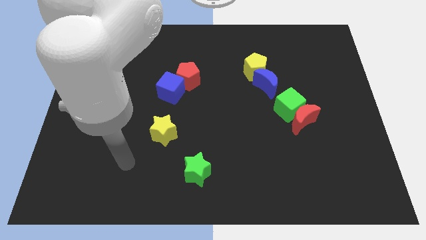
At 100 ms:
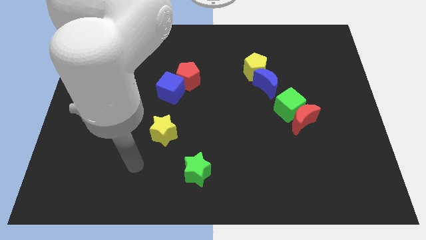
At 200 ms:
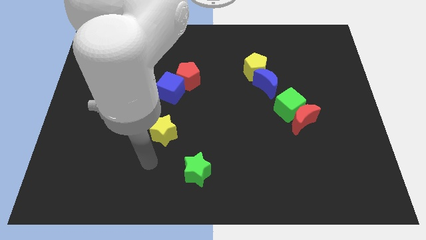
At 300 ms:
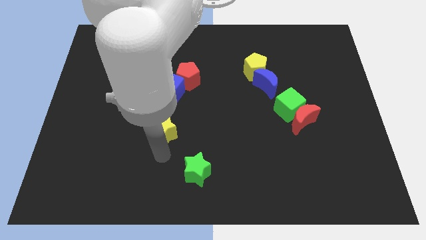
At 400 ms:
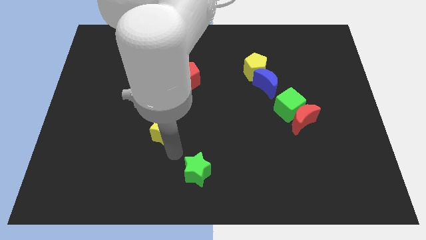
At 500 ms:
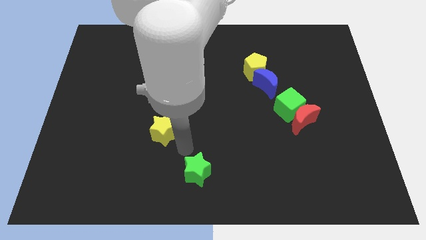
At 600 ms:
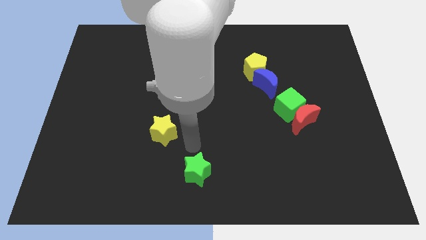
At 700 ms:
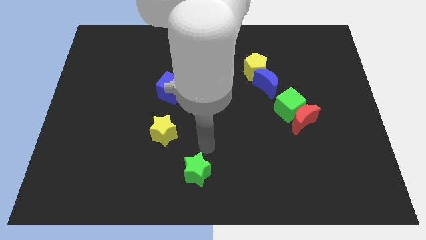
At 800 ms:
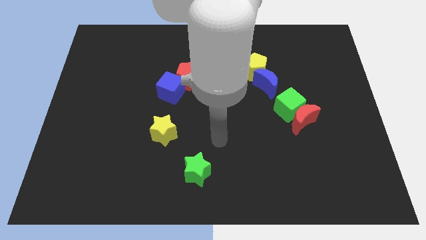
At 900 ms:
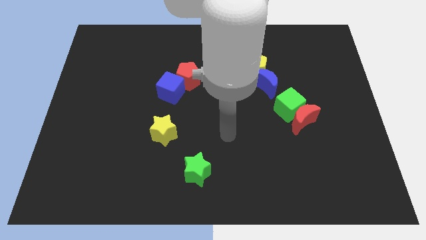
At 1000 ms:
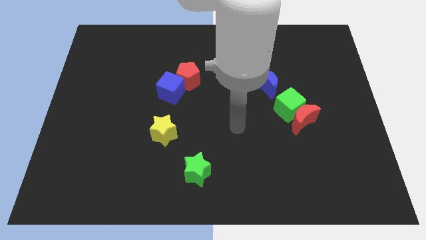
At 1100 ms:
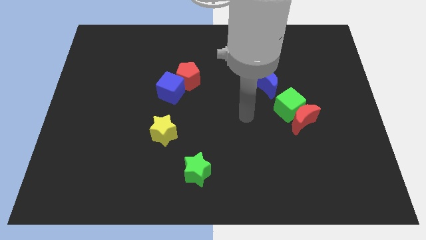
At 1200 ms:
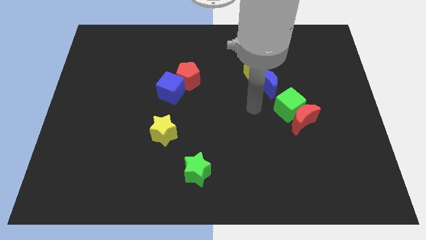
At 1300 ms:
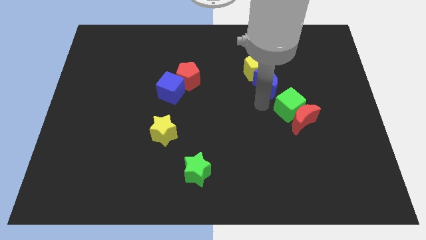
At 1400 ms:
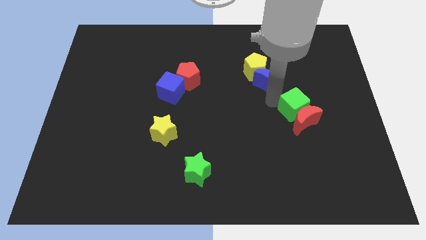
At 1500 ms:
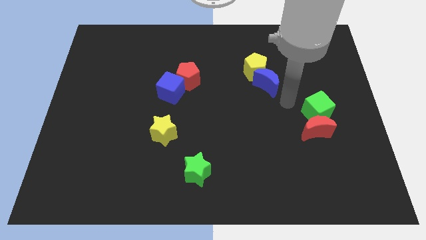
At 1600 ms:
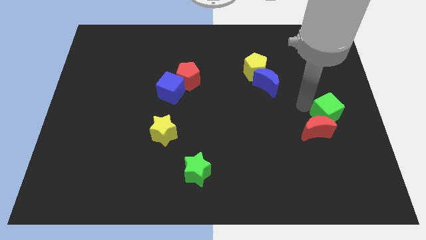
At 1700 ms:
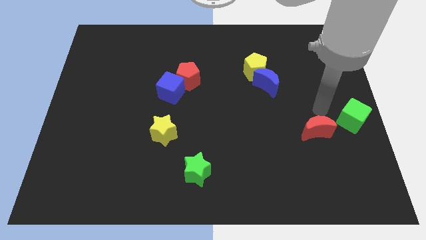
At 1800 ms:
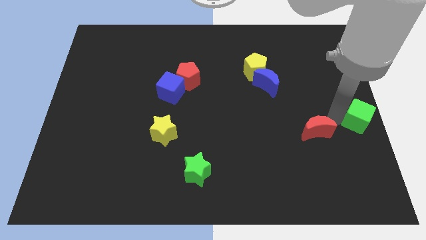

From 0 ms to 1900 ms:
separate the red moon from the green cube

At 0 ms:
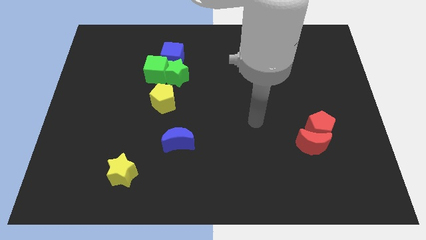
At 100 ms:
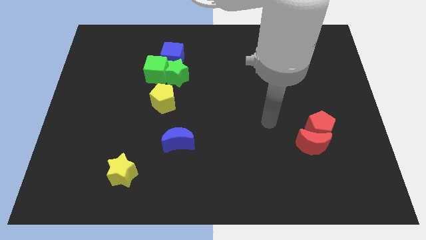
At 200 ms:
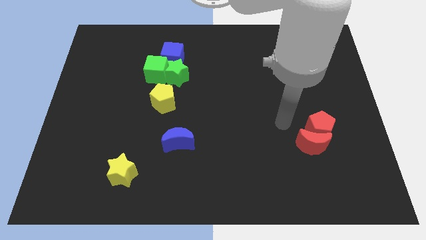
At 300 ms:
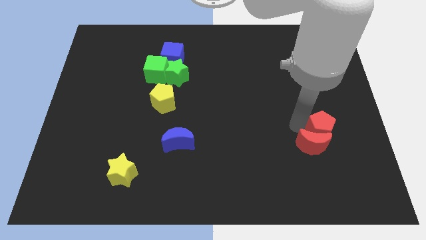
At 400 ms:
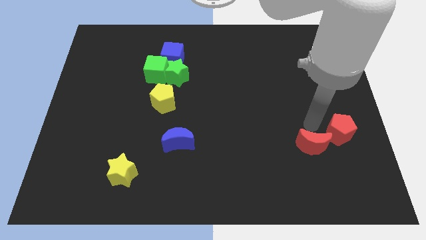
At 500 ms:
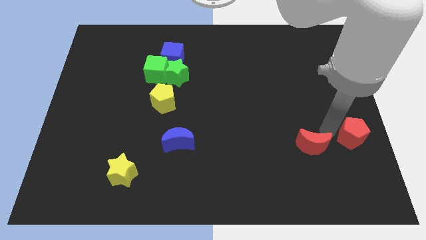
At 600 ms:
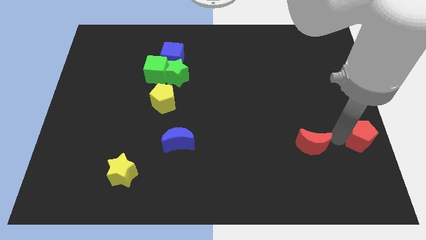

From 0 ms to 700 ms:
move the red moon away from the red pentagon

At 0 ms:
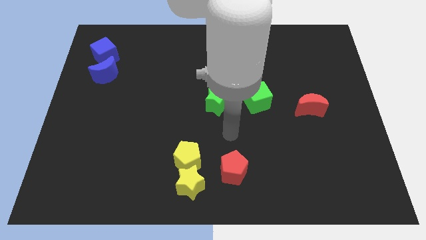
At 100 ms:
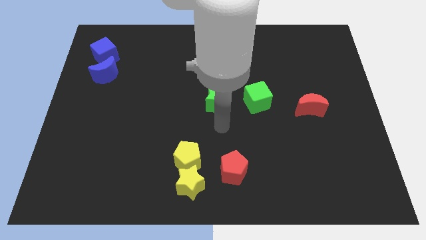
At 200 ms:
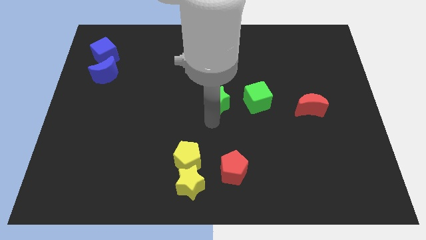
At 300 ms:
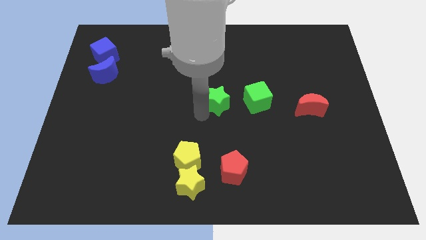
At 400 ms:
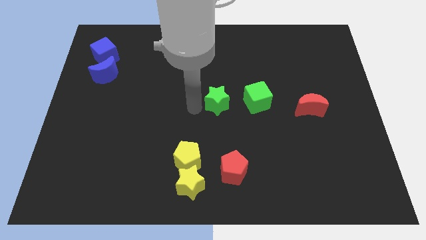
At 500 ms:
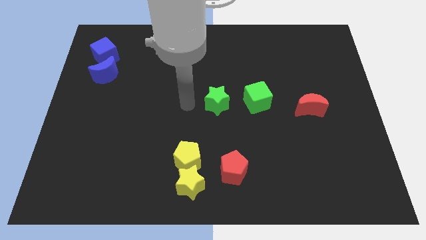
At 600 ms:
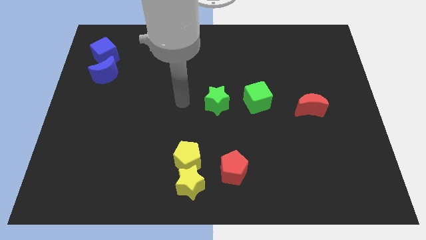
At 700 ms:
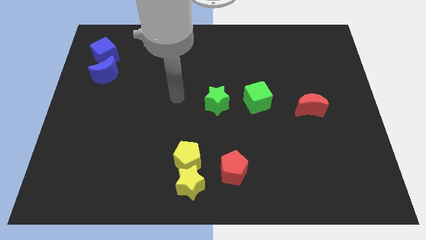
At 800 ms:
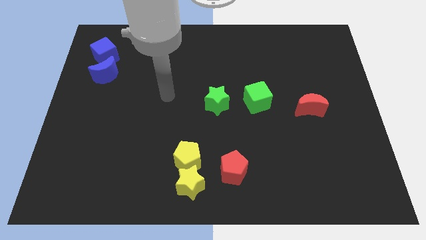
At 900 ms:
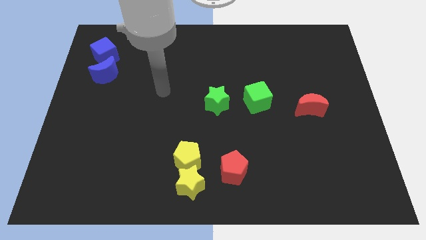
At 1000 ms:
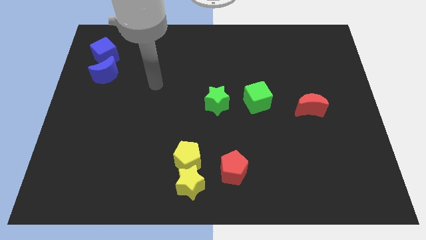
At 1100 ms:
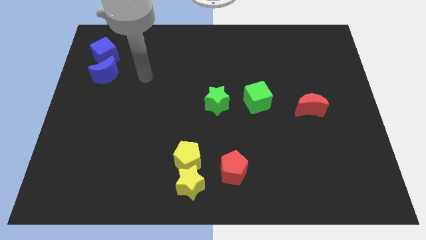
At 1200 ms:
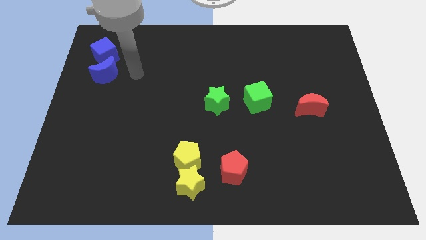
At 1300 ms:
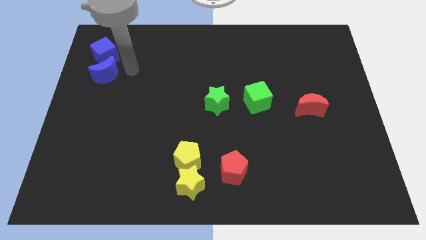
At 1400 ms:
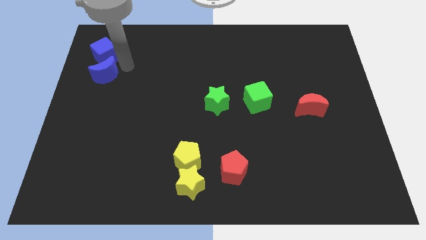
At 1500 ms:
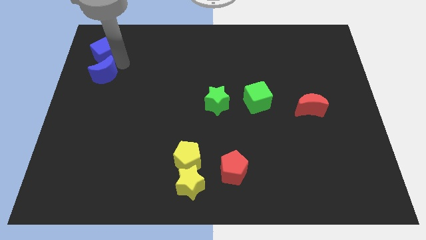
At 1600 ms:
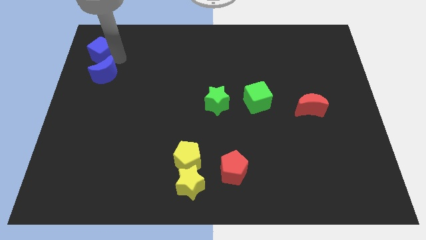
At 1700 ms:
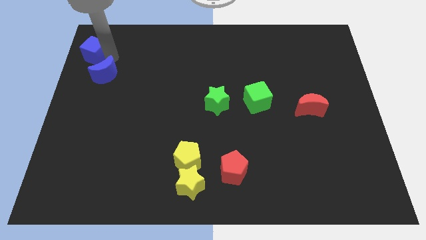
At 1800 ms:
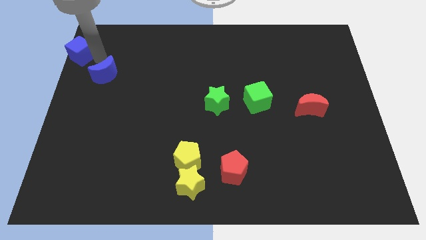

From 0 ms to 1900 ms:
pull the blue moon apart from the blue cube

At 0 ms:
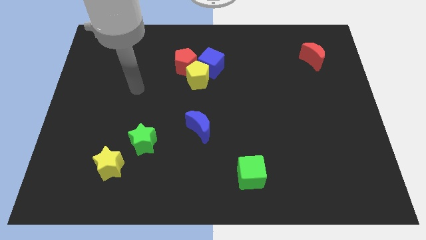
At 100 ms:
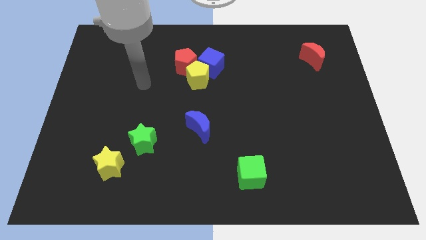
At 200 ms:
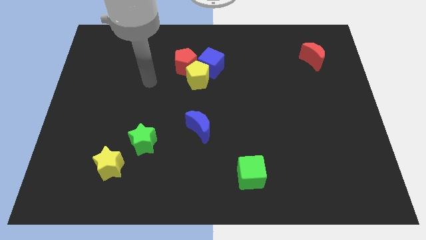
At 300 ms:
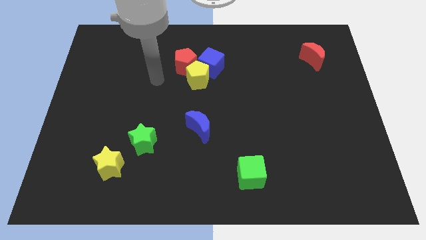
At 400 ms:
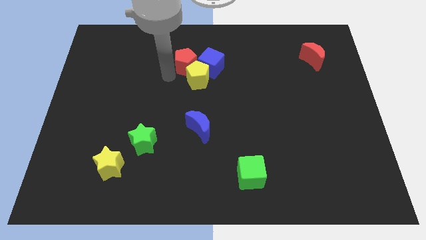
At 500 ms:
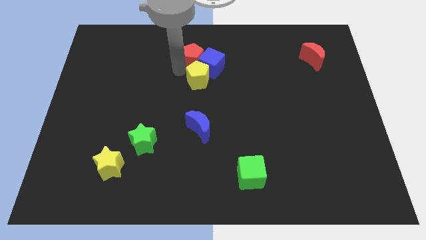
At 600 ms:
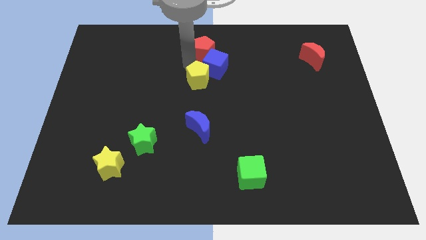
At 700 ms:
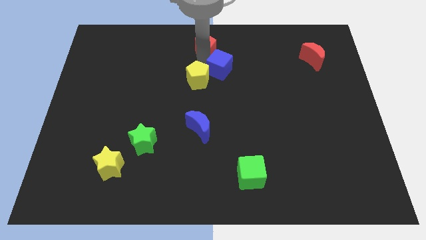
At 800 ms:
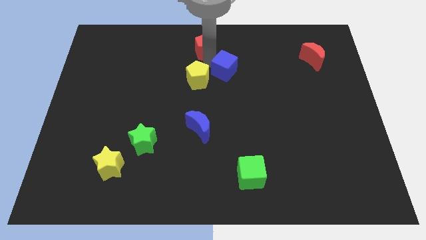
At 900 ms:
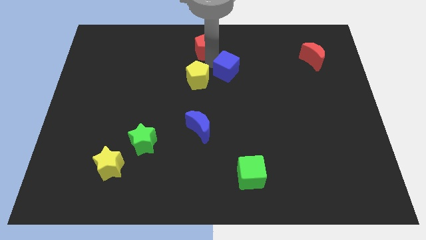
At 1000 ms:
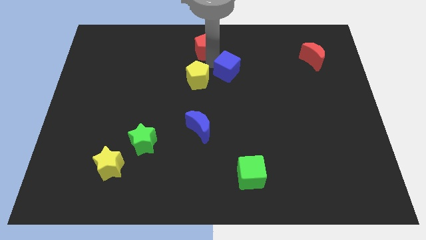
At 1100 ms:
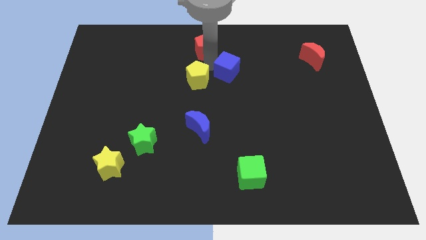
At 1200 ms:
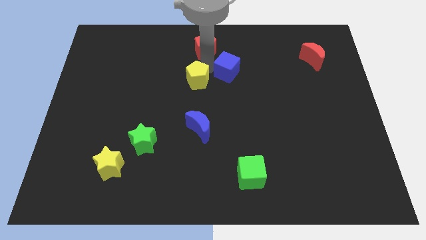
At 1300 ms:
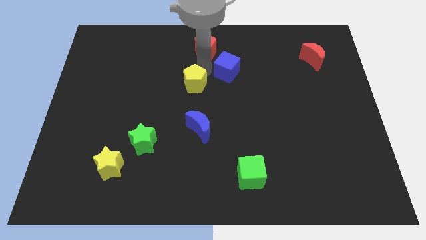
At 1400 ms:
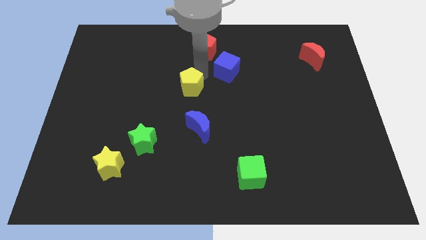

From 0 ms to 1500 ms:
move the yellow pentagon away from the blue cube and red pentagon

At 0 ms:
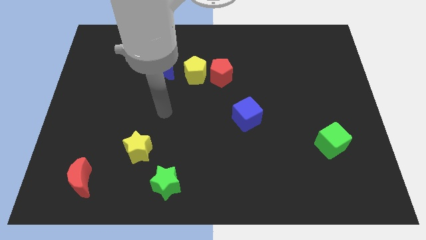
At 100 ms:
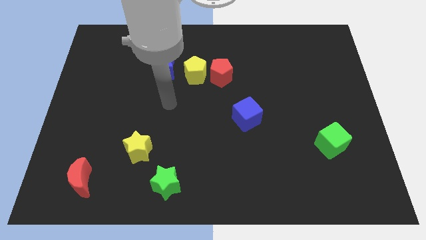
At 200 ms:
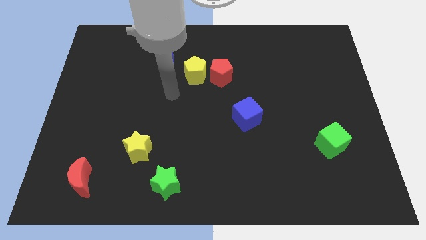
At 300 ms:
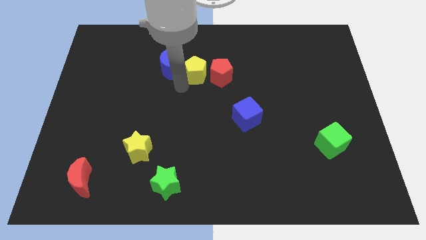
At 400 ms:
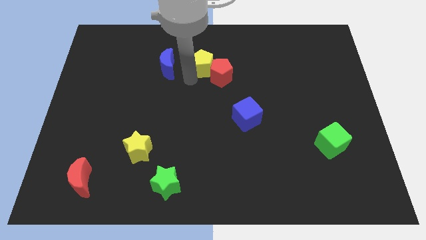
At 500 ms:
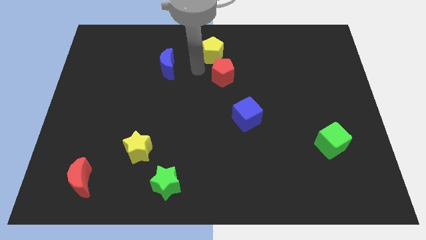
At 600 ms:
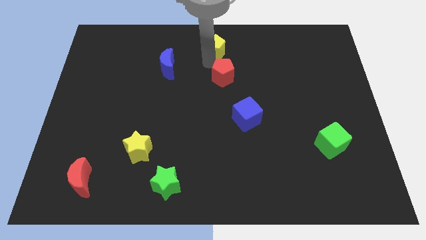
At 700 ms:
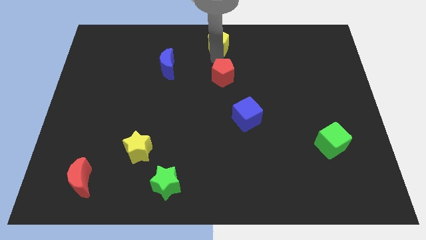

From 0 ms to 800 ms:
move the red pentagon away from the yellow pentagon

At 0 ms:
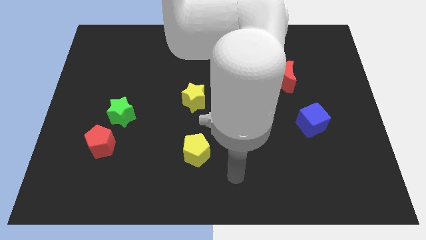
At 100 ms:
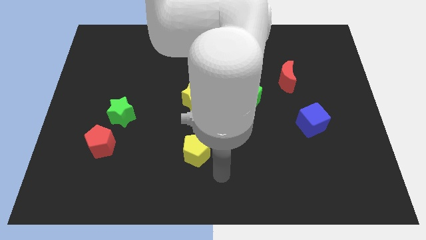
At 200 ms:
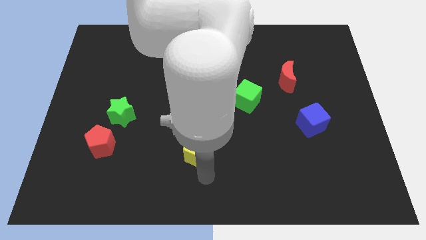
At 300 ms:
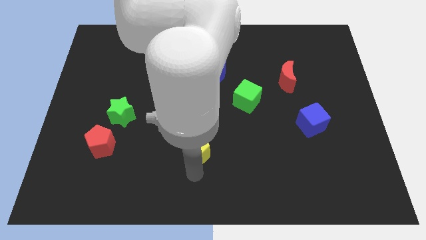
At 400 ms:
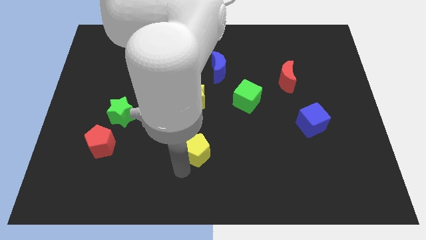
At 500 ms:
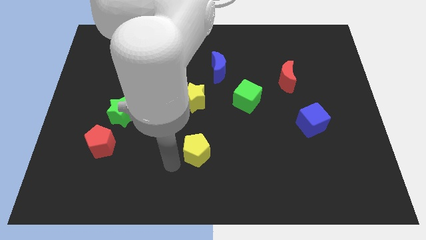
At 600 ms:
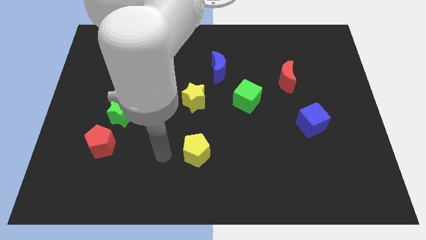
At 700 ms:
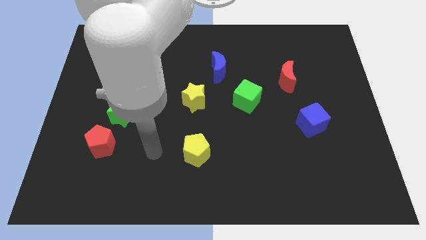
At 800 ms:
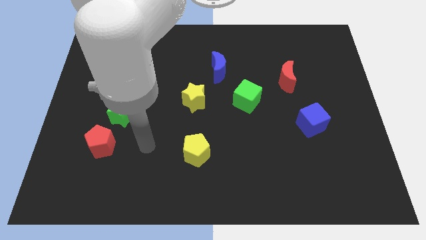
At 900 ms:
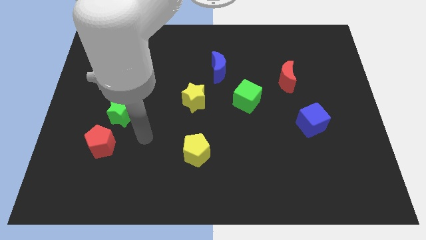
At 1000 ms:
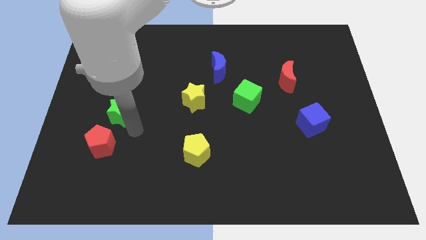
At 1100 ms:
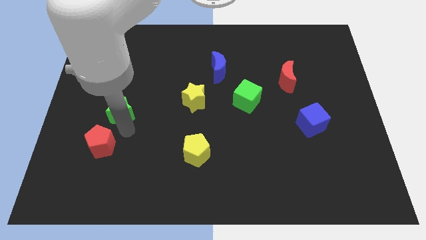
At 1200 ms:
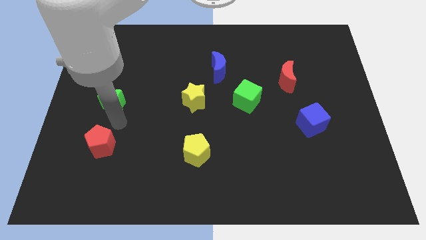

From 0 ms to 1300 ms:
separate the red pentagon from the green star

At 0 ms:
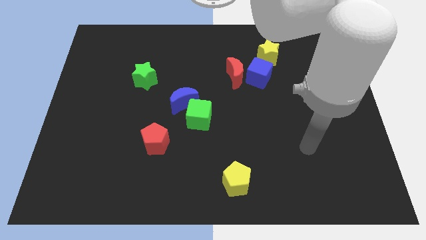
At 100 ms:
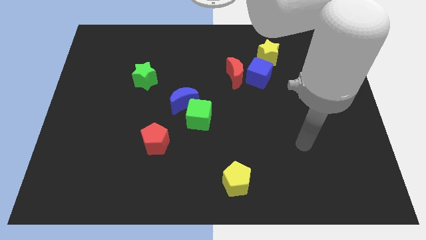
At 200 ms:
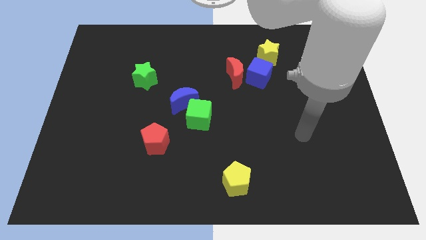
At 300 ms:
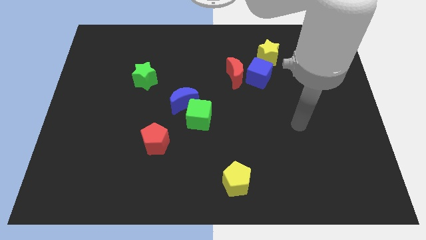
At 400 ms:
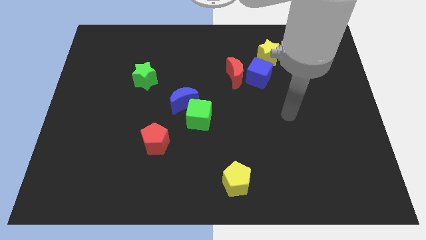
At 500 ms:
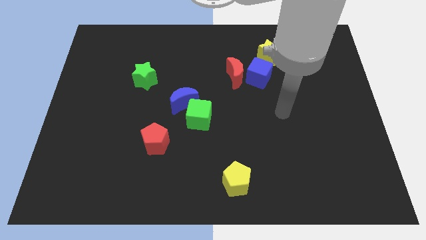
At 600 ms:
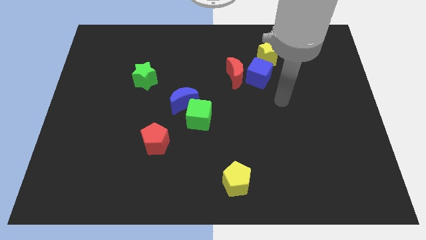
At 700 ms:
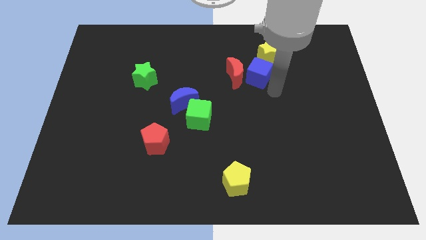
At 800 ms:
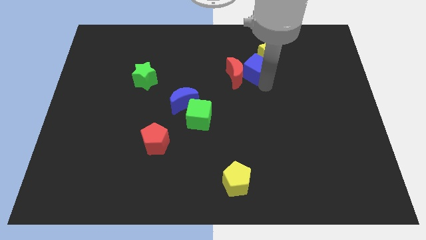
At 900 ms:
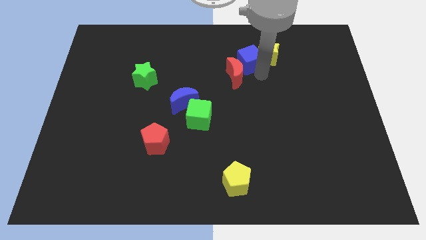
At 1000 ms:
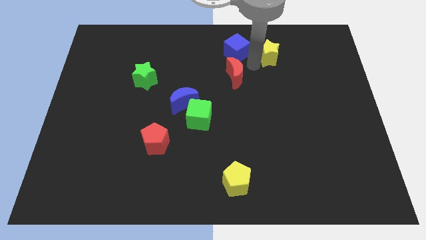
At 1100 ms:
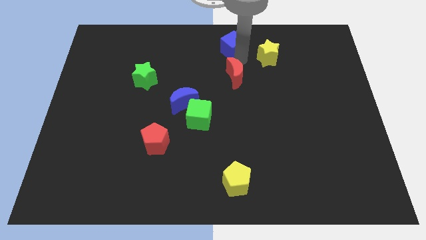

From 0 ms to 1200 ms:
separate the red moon from the blue cube

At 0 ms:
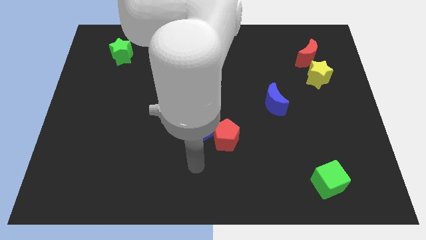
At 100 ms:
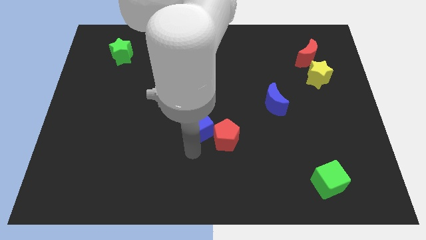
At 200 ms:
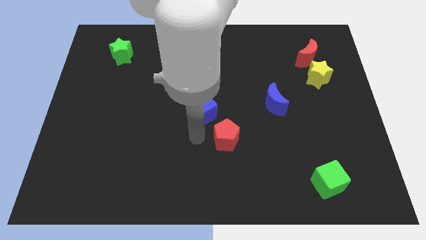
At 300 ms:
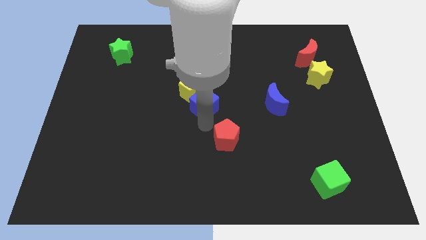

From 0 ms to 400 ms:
separate the red pentagon from the blue cube
